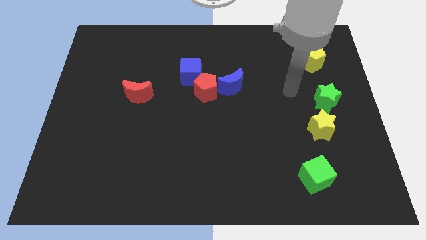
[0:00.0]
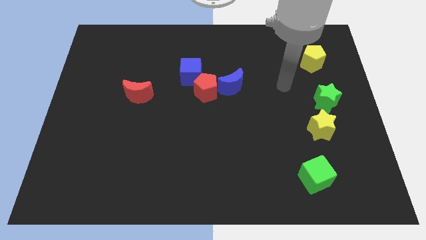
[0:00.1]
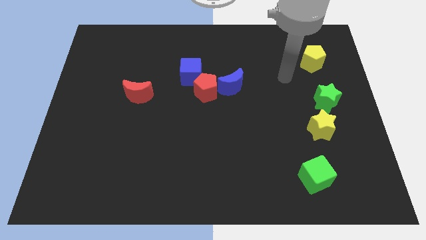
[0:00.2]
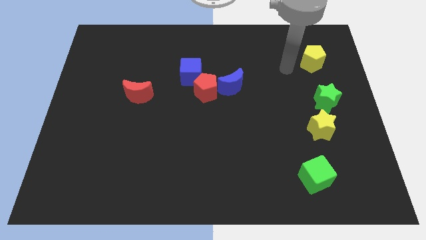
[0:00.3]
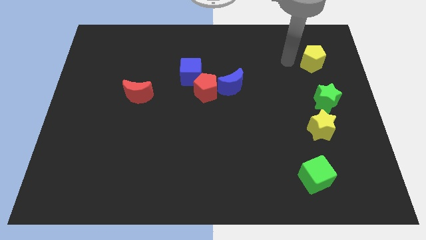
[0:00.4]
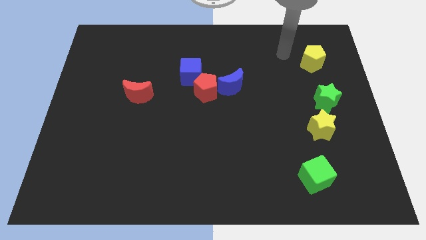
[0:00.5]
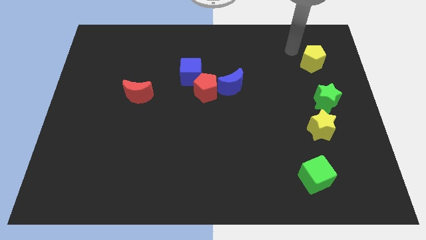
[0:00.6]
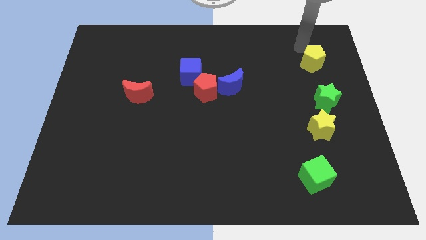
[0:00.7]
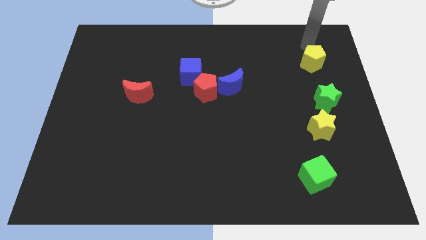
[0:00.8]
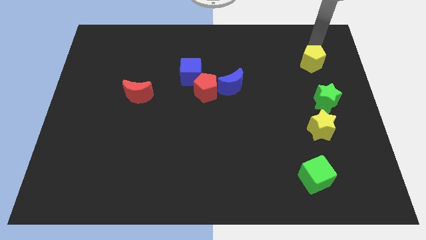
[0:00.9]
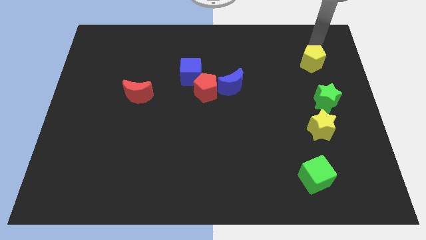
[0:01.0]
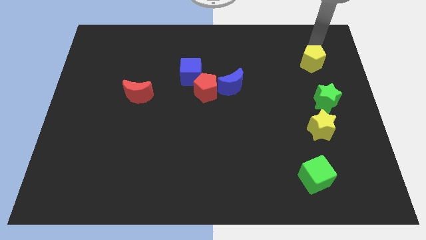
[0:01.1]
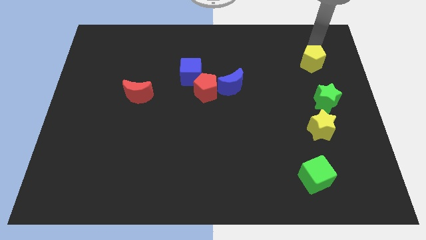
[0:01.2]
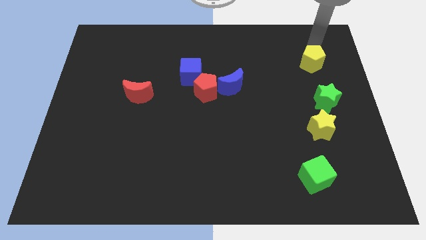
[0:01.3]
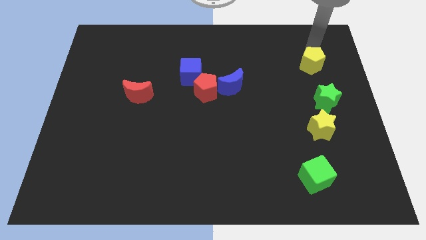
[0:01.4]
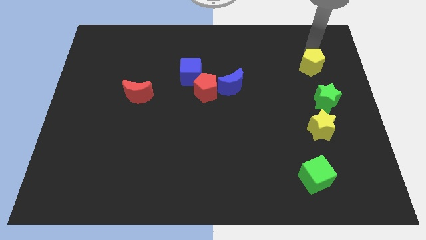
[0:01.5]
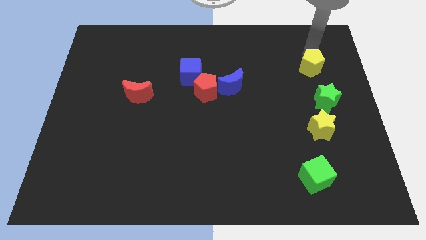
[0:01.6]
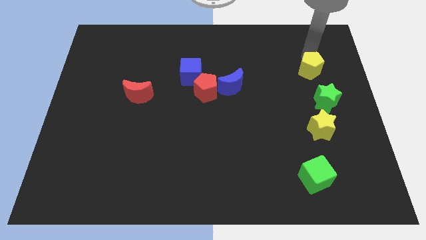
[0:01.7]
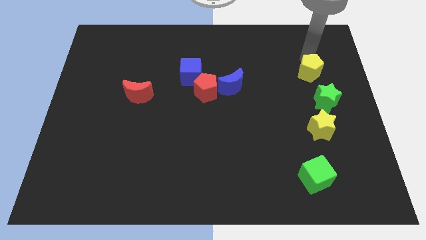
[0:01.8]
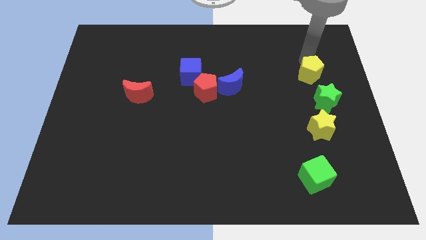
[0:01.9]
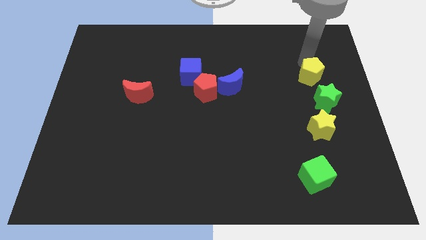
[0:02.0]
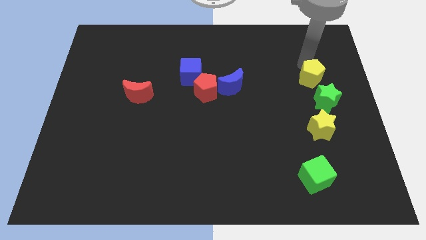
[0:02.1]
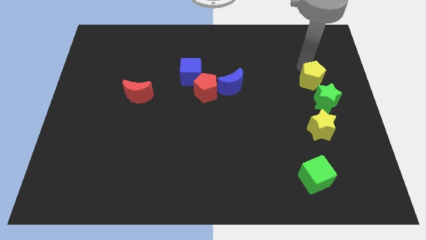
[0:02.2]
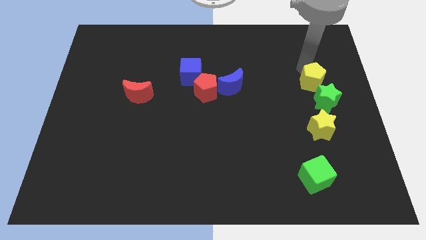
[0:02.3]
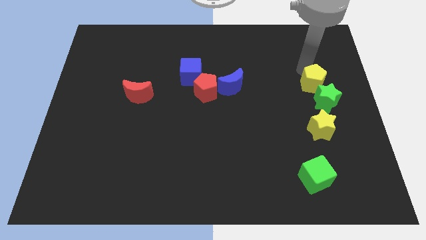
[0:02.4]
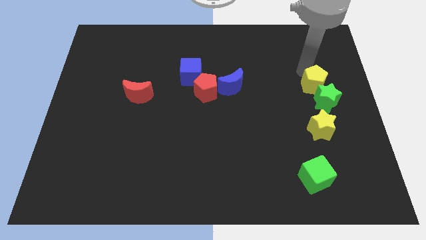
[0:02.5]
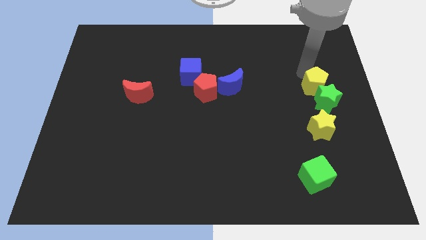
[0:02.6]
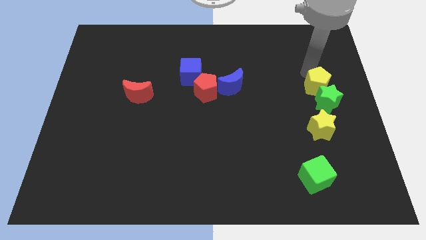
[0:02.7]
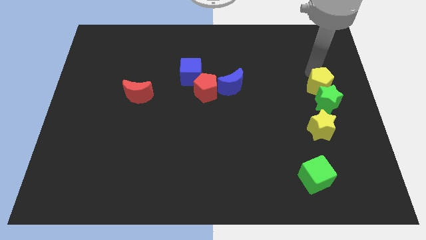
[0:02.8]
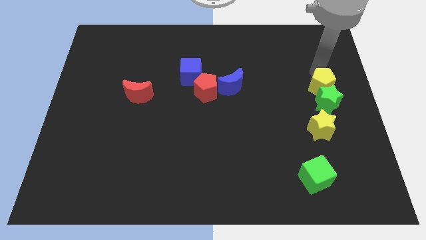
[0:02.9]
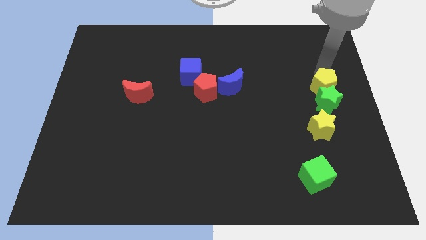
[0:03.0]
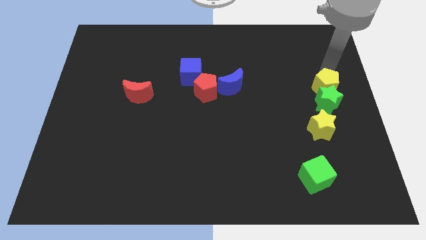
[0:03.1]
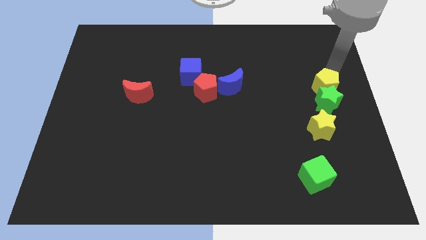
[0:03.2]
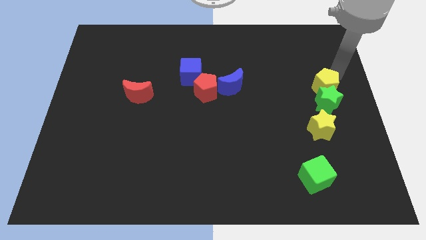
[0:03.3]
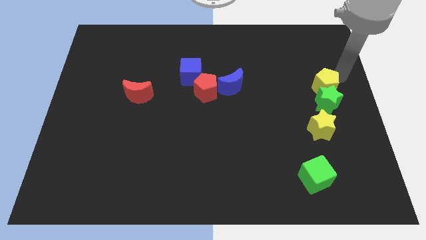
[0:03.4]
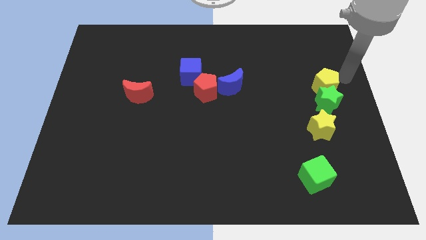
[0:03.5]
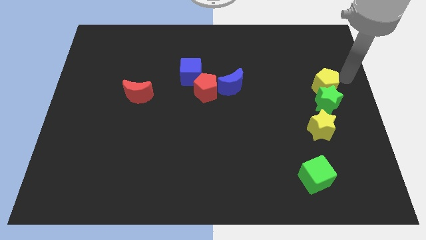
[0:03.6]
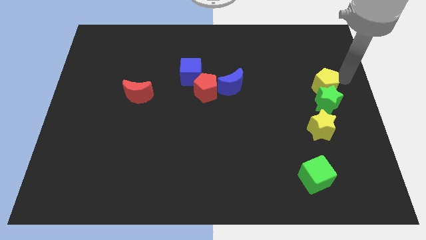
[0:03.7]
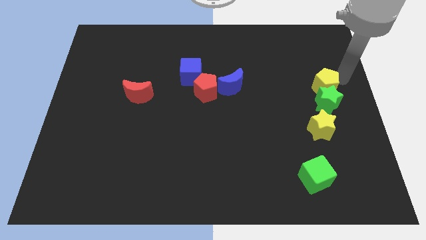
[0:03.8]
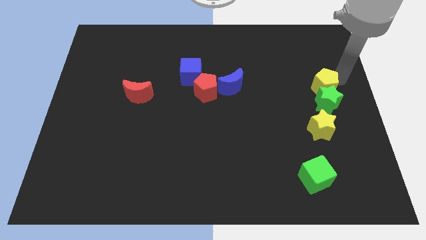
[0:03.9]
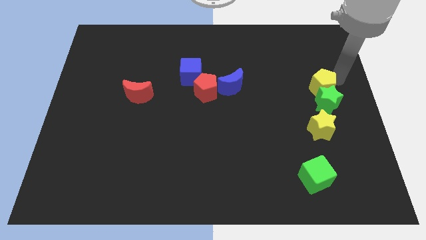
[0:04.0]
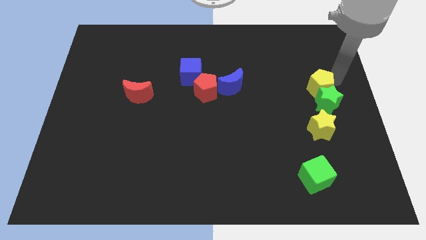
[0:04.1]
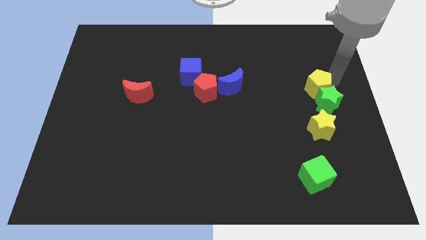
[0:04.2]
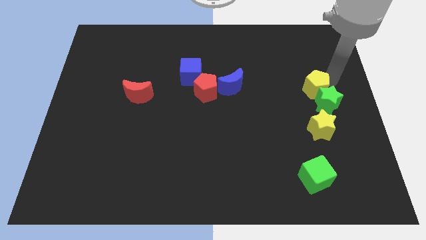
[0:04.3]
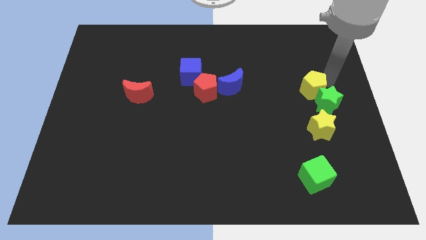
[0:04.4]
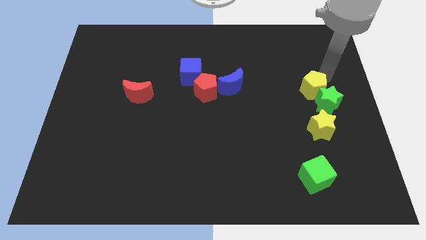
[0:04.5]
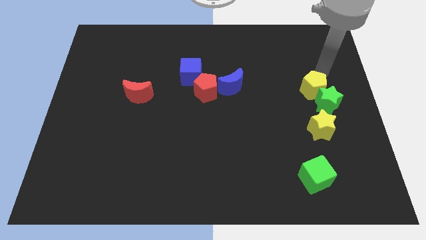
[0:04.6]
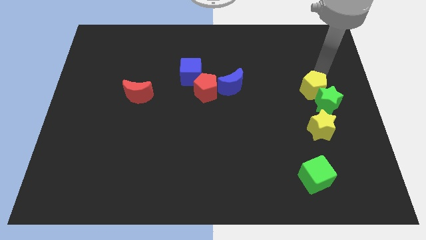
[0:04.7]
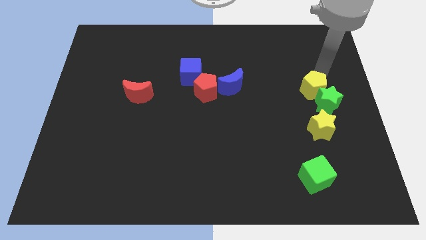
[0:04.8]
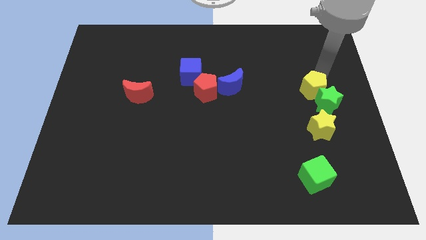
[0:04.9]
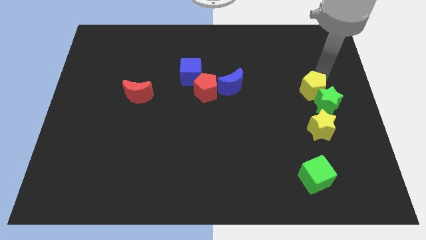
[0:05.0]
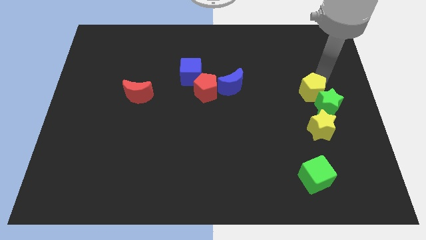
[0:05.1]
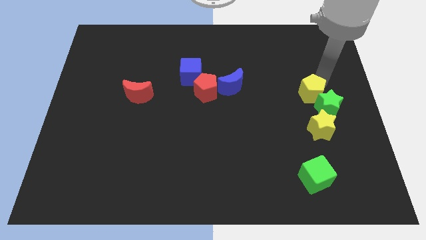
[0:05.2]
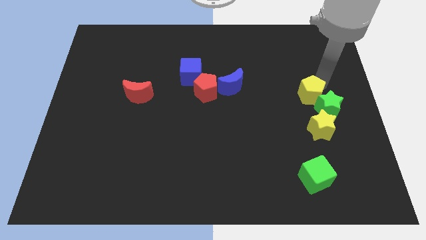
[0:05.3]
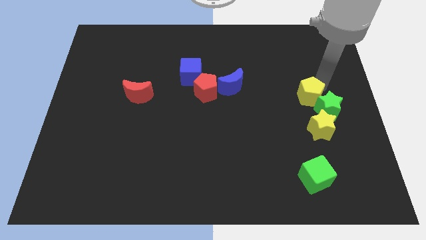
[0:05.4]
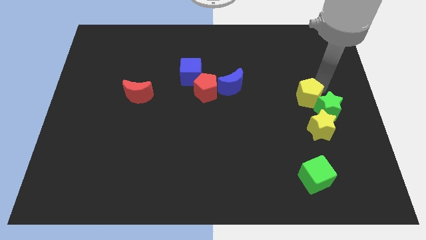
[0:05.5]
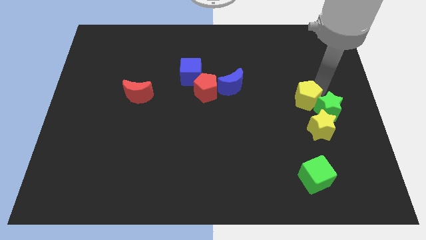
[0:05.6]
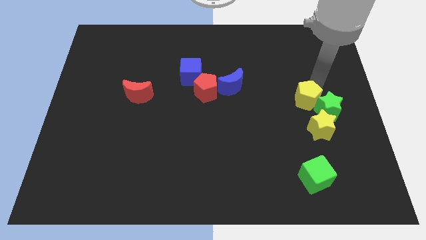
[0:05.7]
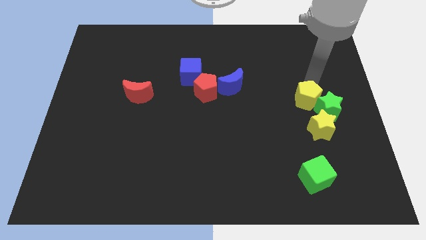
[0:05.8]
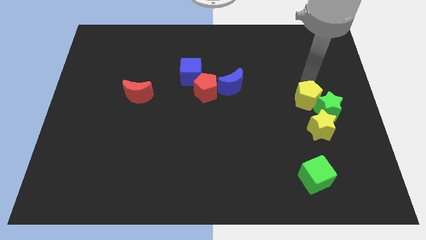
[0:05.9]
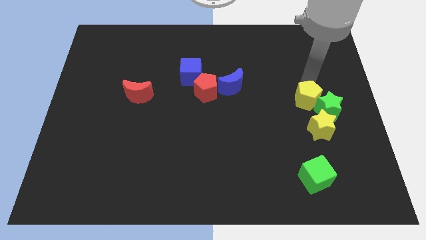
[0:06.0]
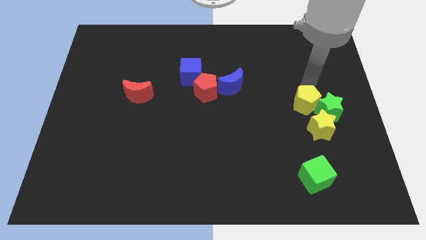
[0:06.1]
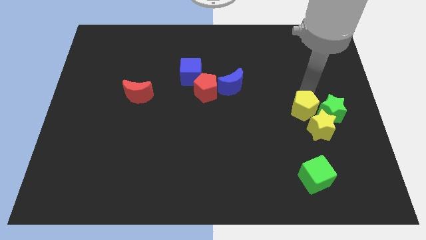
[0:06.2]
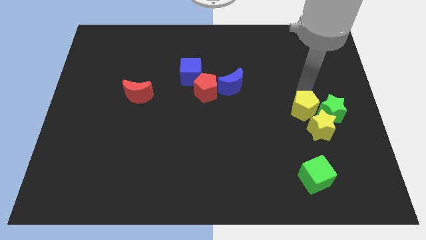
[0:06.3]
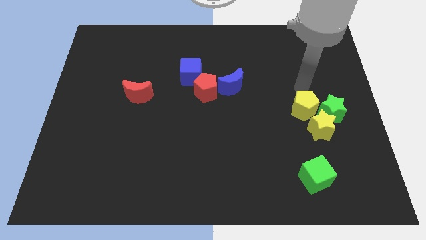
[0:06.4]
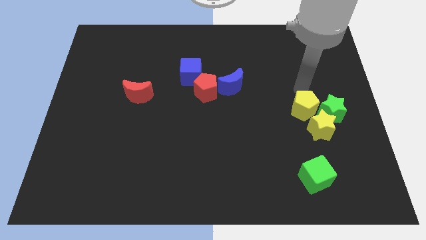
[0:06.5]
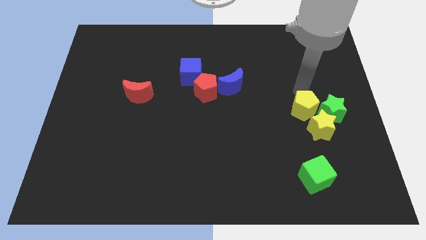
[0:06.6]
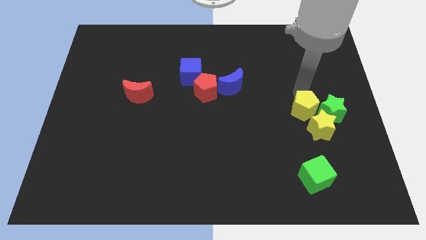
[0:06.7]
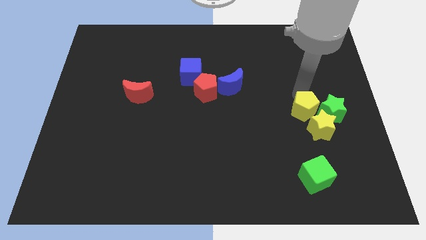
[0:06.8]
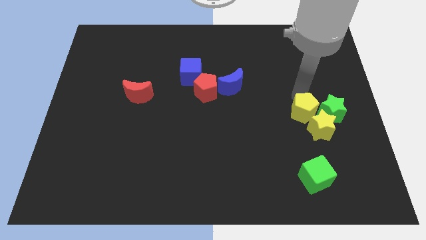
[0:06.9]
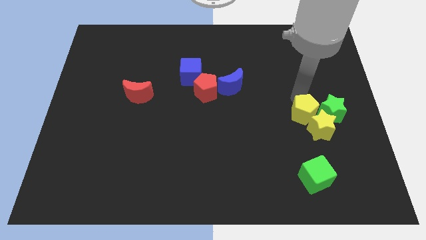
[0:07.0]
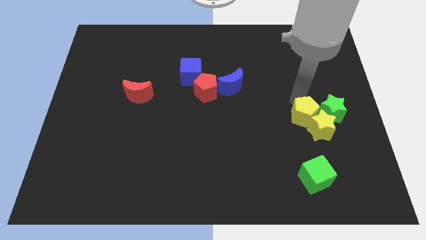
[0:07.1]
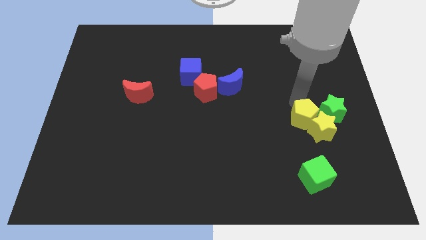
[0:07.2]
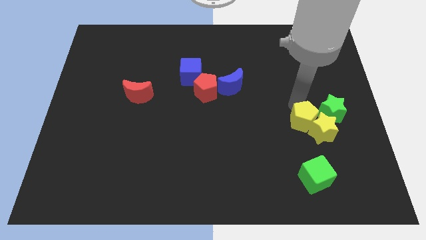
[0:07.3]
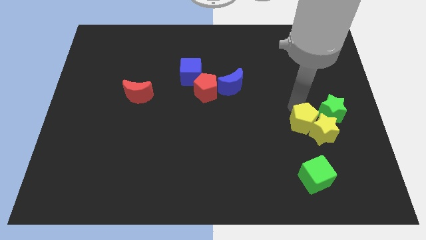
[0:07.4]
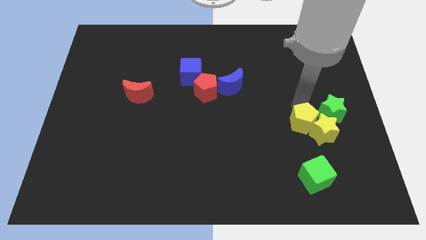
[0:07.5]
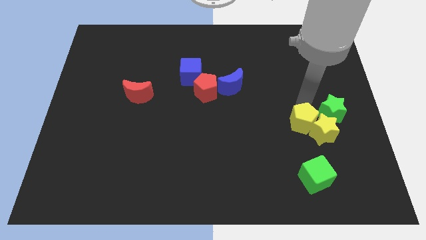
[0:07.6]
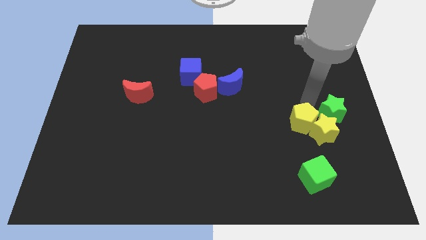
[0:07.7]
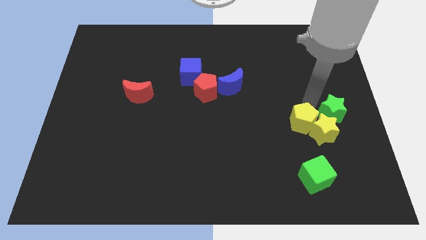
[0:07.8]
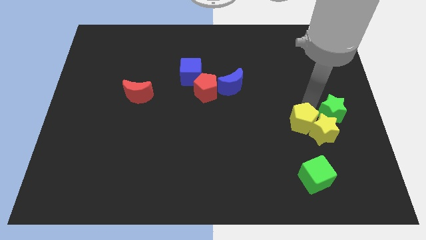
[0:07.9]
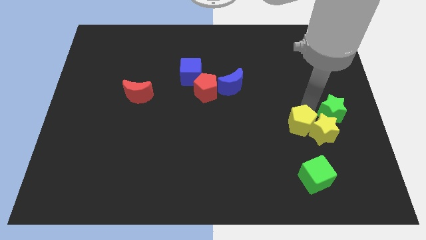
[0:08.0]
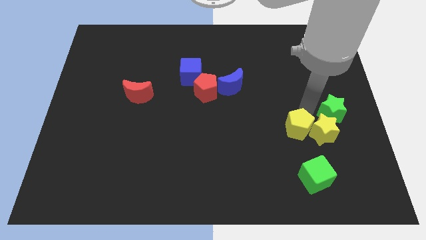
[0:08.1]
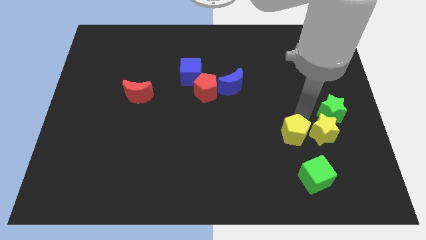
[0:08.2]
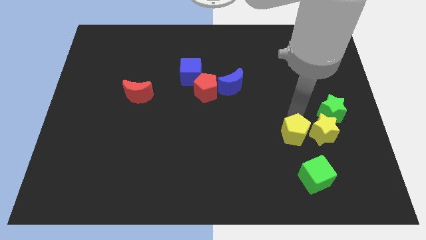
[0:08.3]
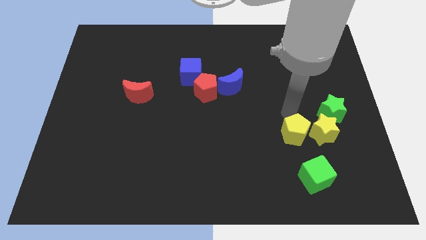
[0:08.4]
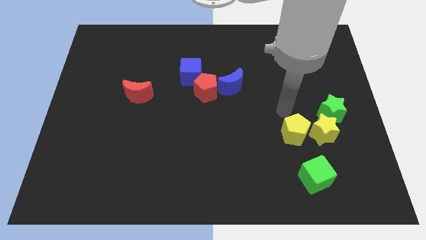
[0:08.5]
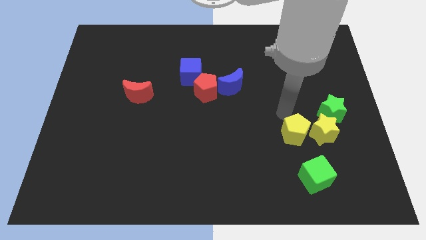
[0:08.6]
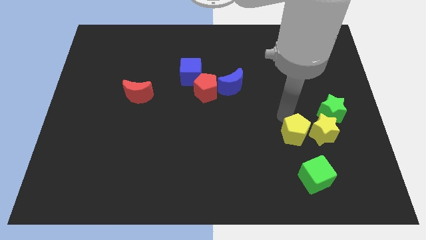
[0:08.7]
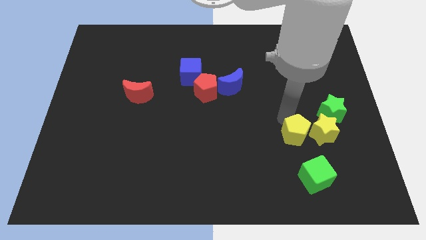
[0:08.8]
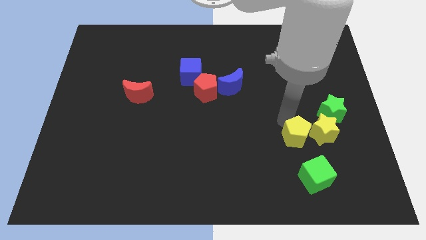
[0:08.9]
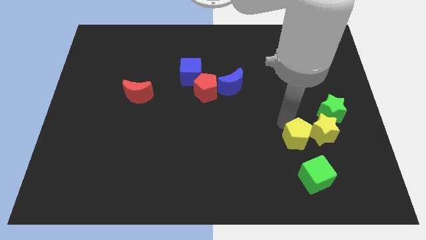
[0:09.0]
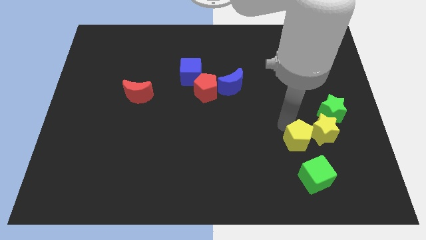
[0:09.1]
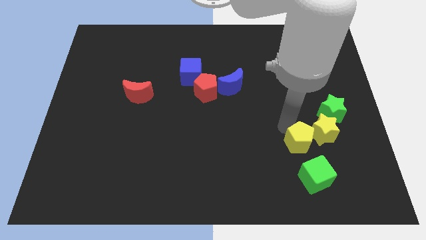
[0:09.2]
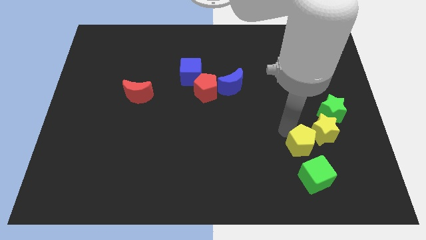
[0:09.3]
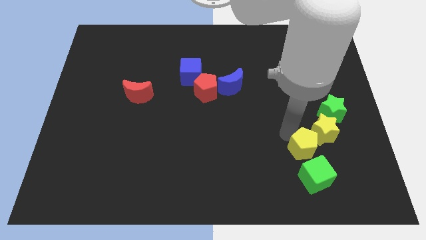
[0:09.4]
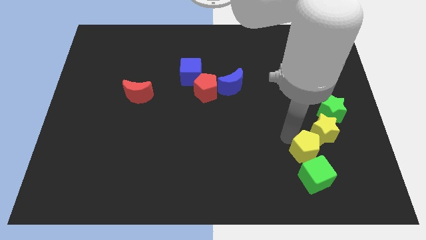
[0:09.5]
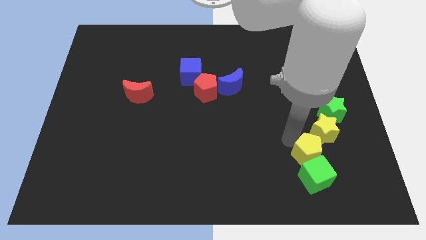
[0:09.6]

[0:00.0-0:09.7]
push the yellow pentagon to the green cube
